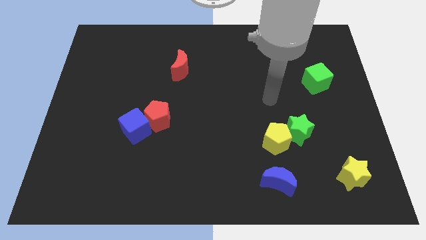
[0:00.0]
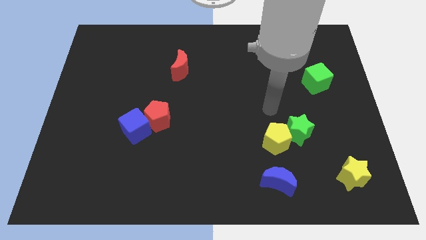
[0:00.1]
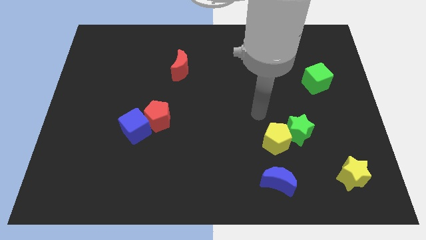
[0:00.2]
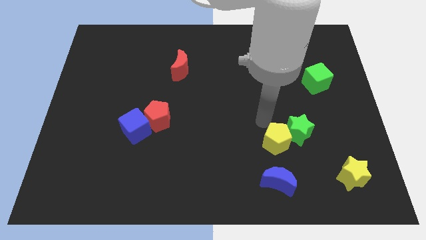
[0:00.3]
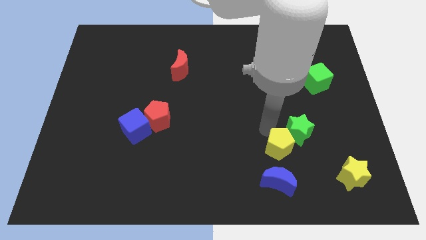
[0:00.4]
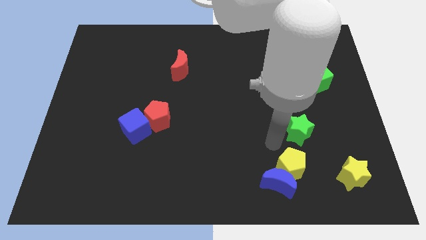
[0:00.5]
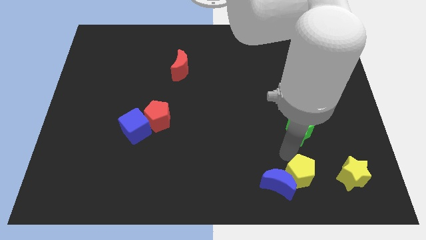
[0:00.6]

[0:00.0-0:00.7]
separate the green star from the yellow pentagon

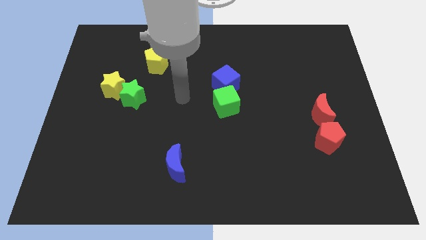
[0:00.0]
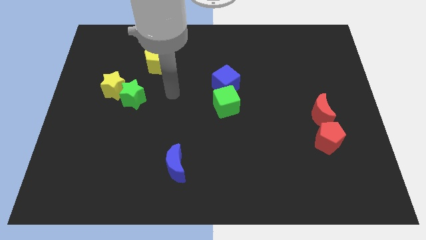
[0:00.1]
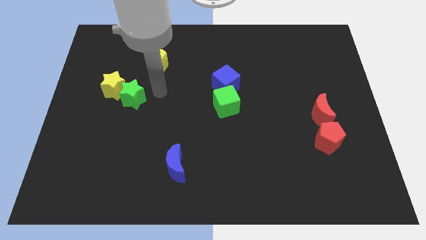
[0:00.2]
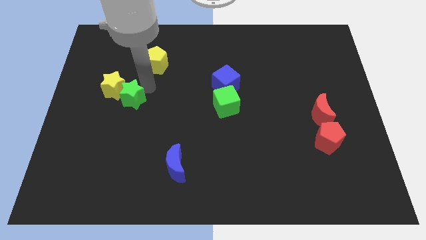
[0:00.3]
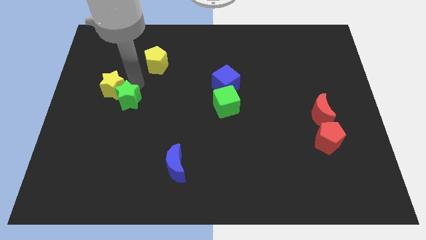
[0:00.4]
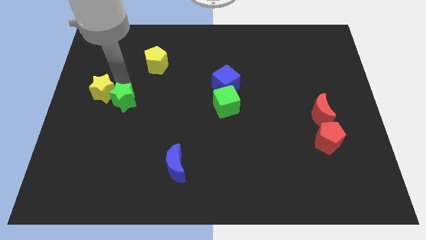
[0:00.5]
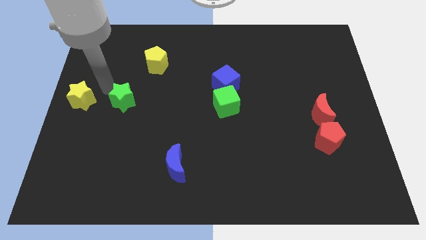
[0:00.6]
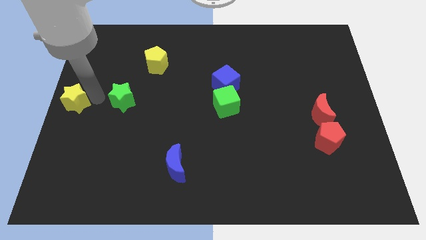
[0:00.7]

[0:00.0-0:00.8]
separate the green star from the yellow star

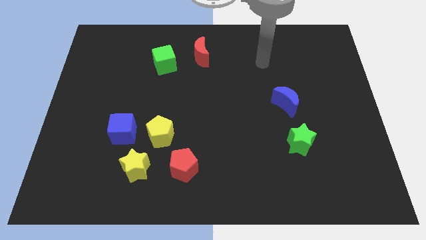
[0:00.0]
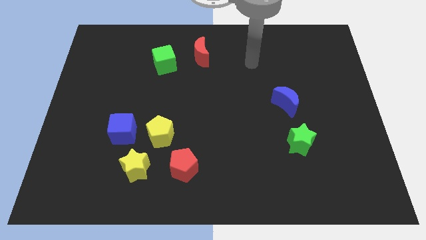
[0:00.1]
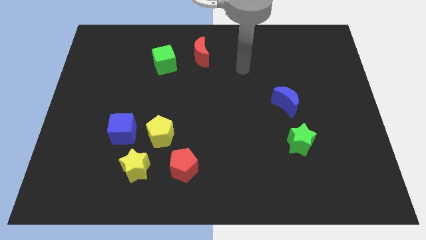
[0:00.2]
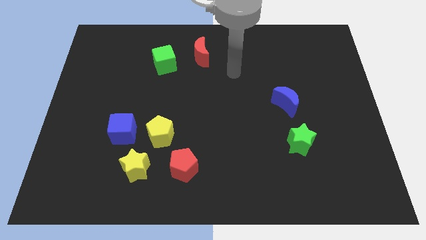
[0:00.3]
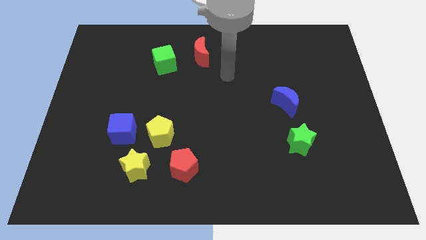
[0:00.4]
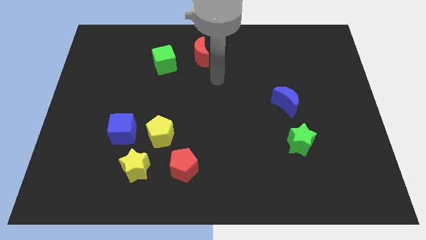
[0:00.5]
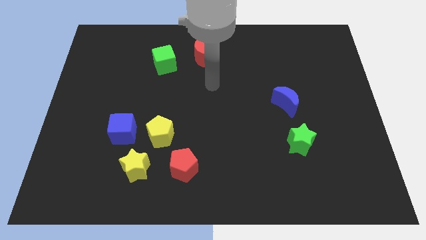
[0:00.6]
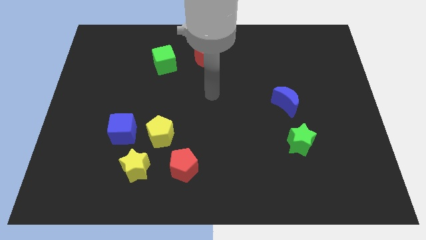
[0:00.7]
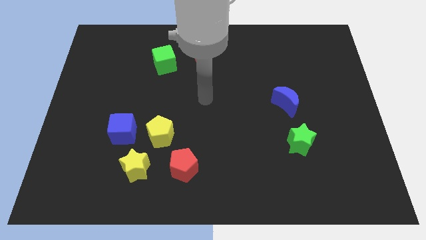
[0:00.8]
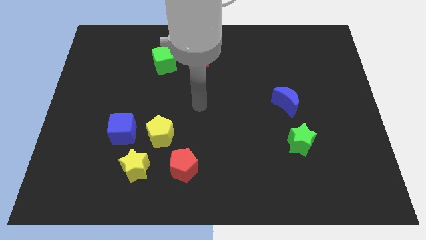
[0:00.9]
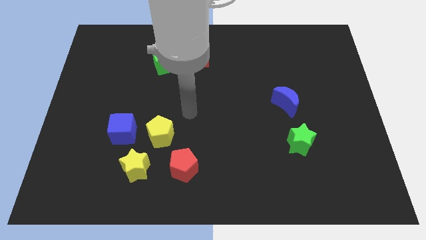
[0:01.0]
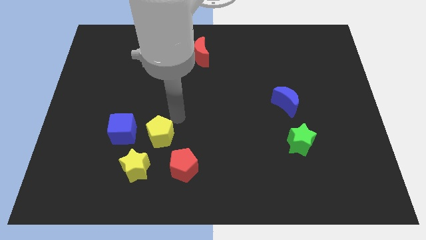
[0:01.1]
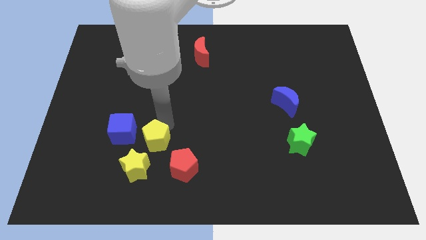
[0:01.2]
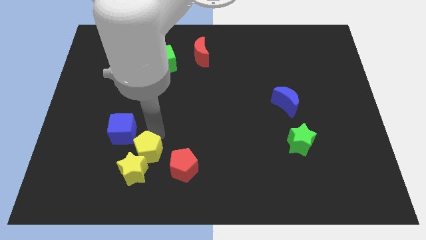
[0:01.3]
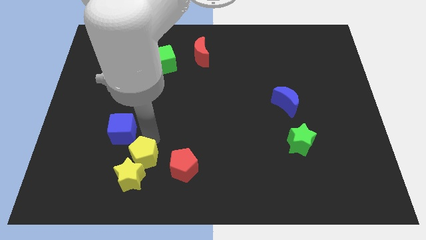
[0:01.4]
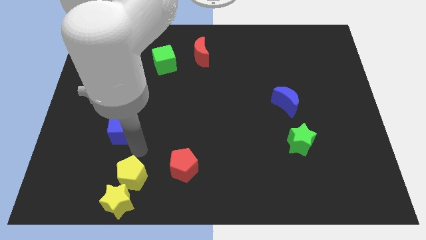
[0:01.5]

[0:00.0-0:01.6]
move the blue cube away from the yellow pentagon and yellow star

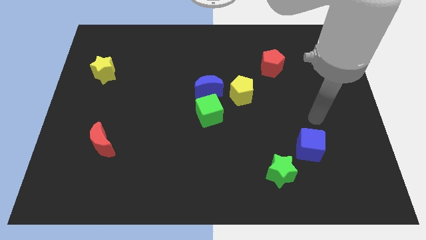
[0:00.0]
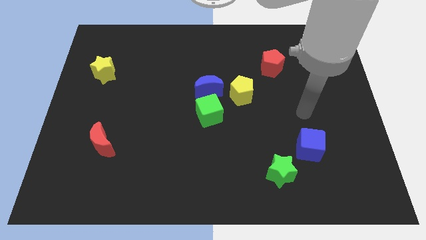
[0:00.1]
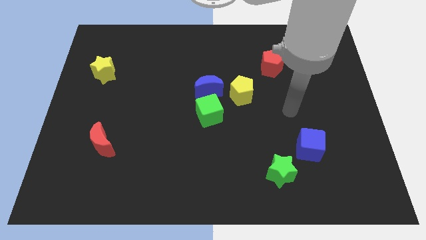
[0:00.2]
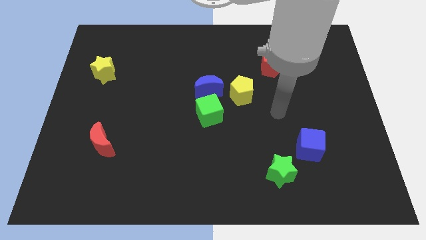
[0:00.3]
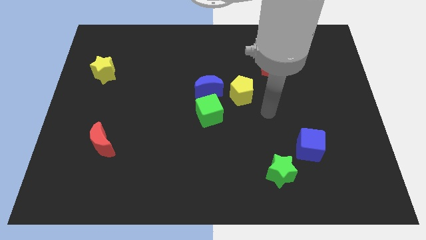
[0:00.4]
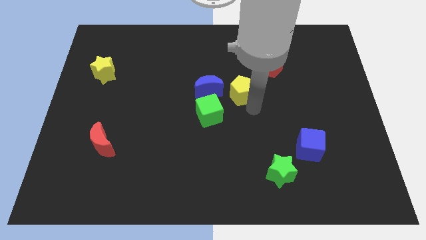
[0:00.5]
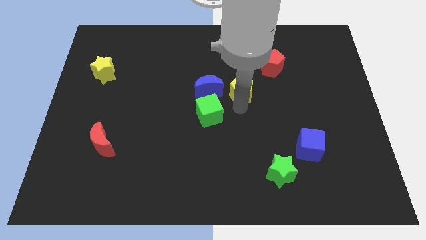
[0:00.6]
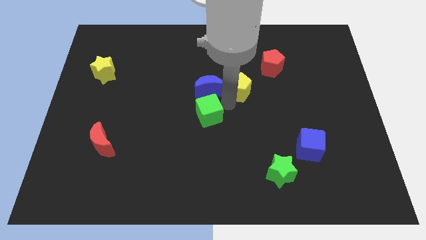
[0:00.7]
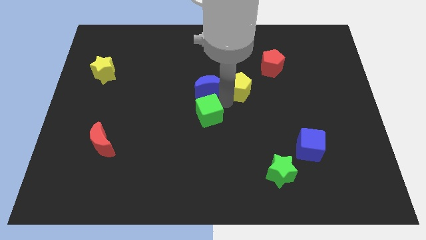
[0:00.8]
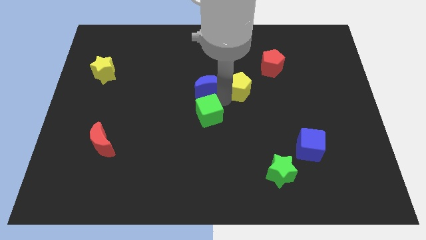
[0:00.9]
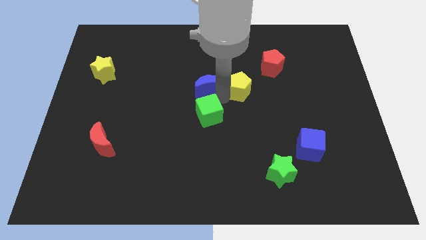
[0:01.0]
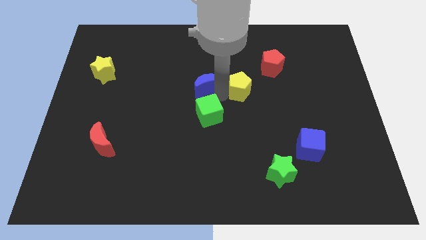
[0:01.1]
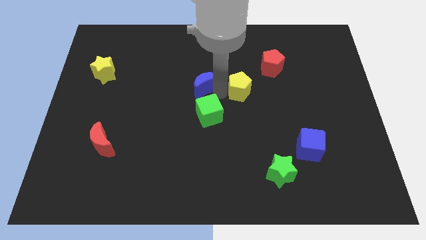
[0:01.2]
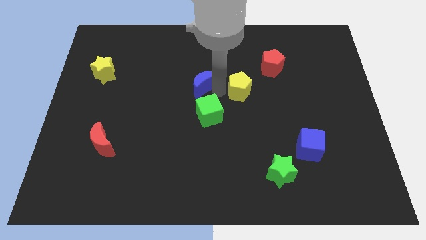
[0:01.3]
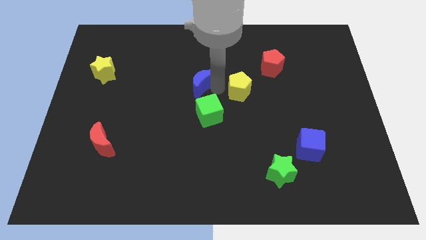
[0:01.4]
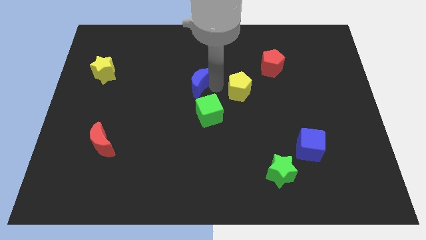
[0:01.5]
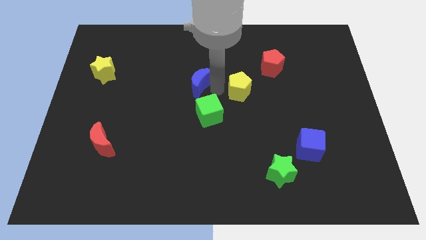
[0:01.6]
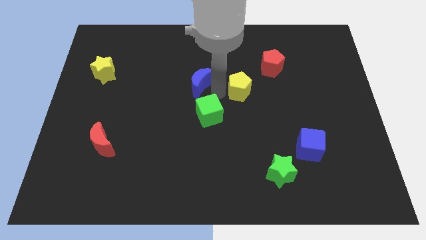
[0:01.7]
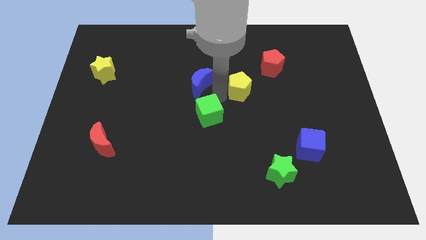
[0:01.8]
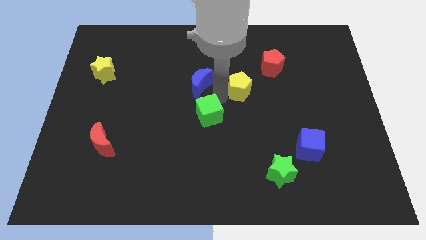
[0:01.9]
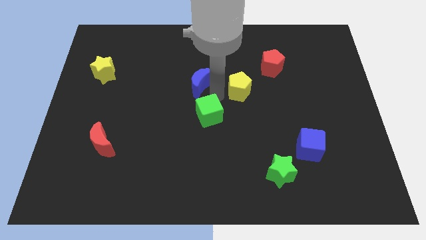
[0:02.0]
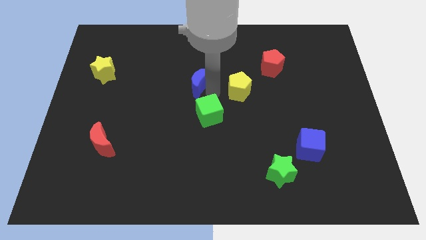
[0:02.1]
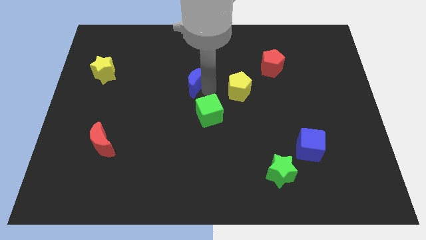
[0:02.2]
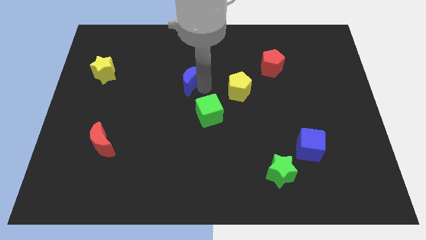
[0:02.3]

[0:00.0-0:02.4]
pull the blue moon apart from the green cube and yellow pentagon

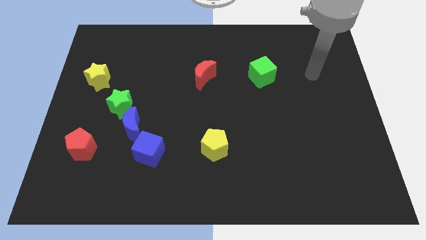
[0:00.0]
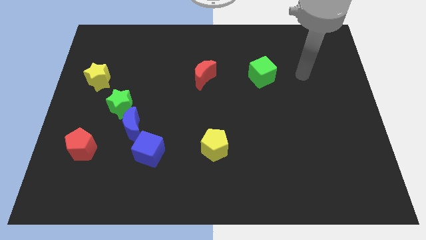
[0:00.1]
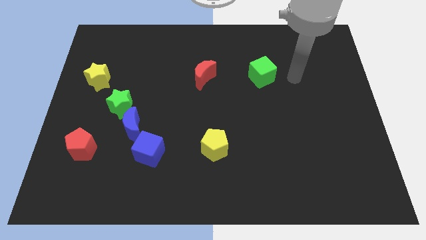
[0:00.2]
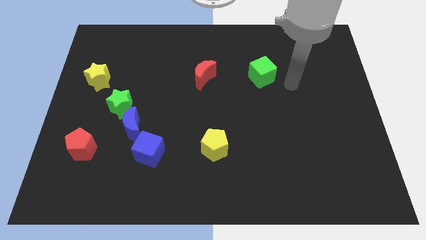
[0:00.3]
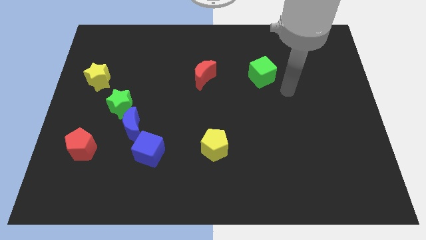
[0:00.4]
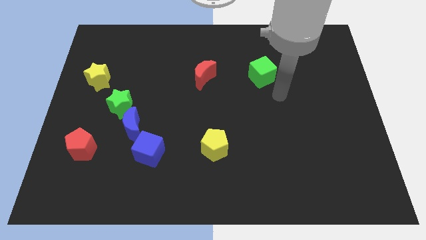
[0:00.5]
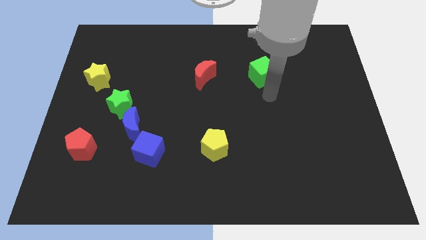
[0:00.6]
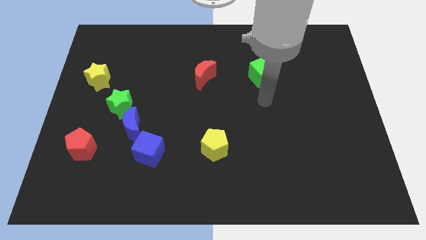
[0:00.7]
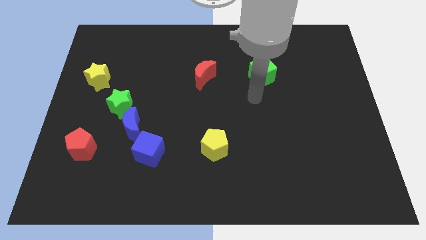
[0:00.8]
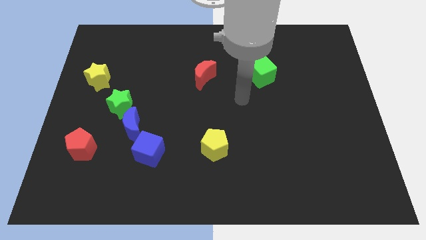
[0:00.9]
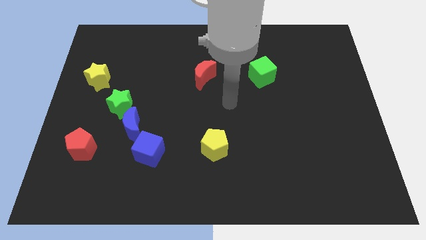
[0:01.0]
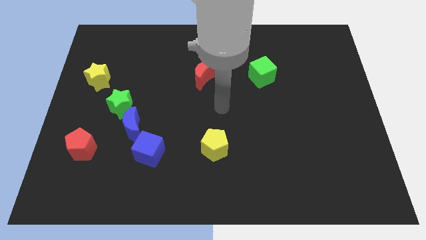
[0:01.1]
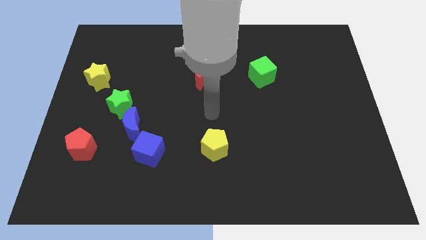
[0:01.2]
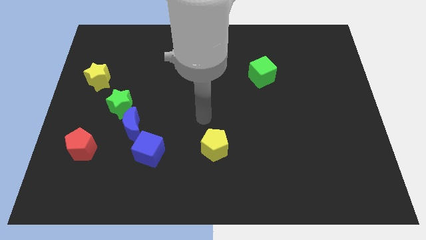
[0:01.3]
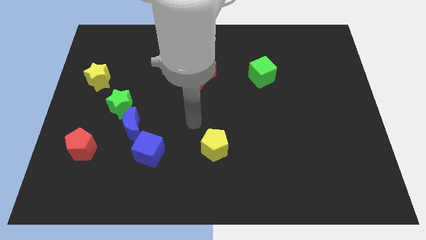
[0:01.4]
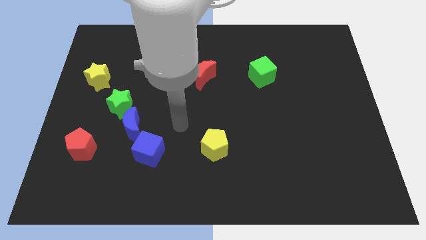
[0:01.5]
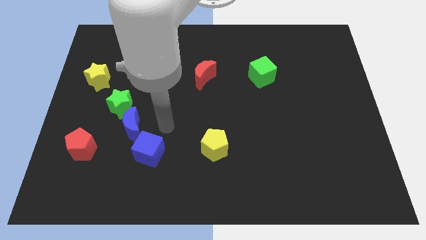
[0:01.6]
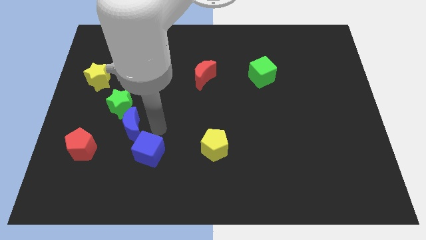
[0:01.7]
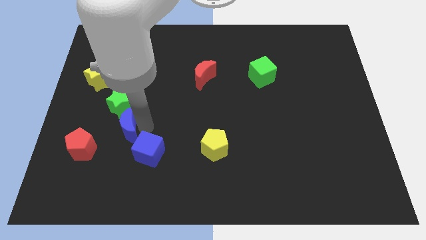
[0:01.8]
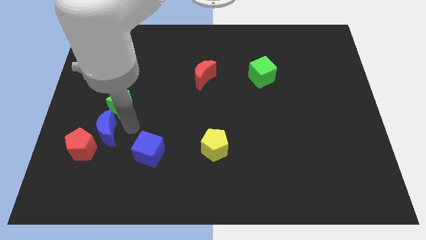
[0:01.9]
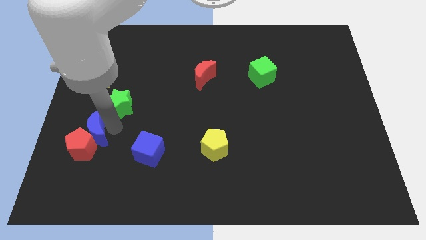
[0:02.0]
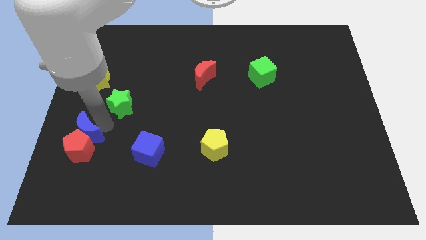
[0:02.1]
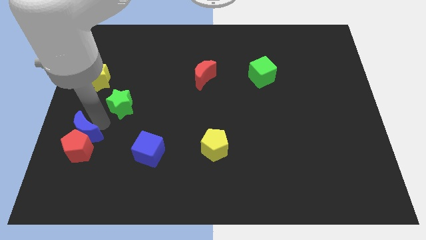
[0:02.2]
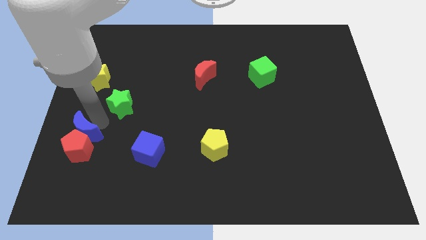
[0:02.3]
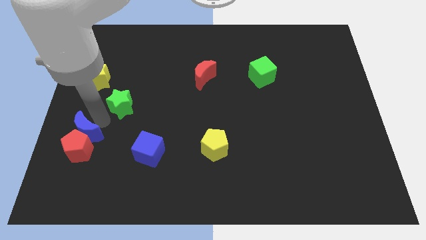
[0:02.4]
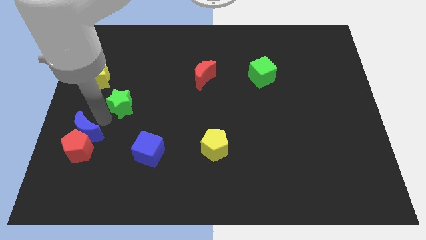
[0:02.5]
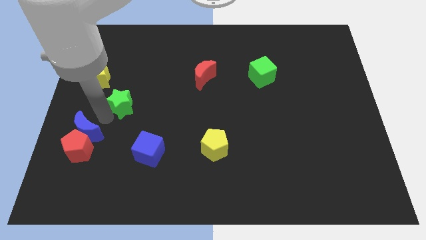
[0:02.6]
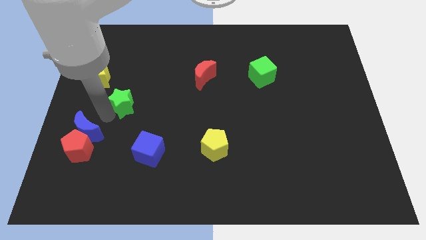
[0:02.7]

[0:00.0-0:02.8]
move the green star away from the blue moon

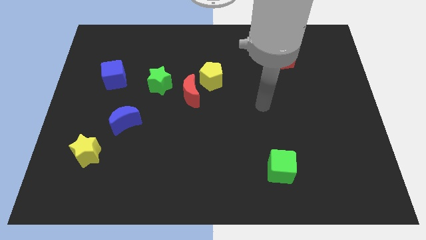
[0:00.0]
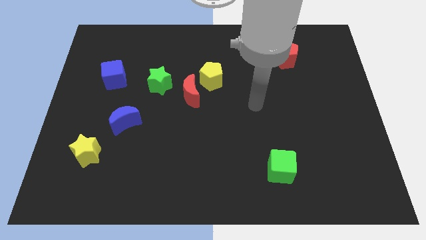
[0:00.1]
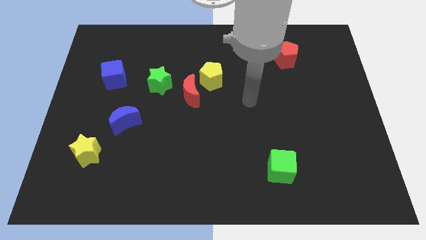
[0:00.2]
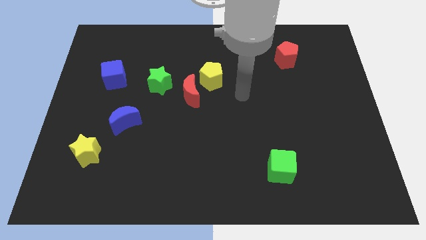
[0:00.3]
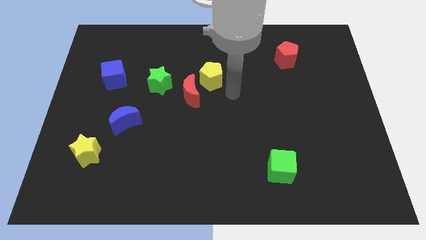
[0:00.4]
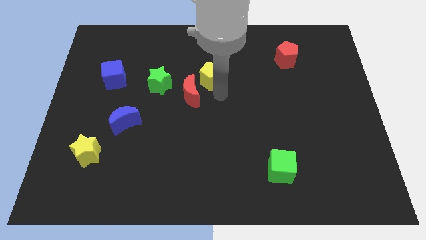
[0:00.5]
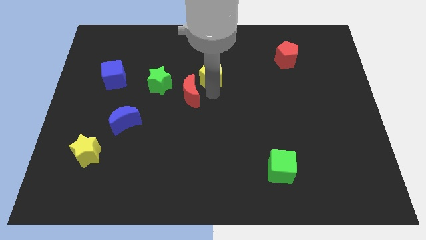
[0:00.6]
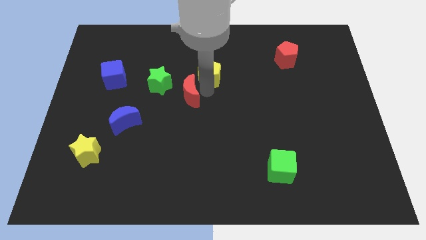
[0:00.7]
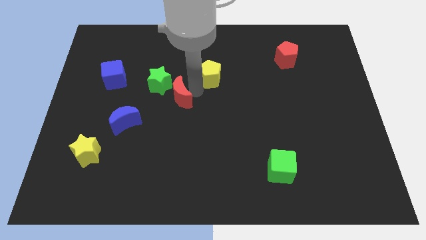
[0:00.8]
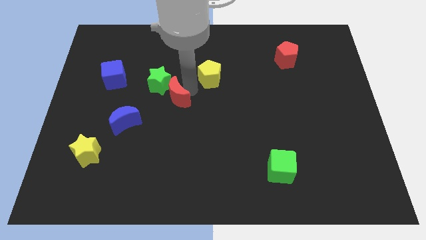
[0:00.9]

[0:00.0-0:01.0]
move the yellow pentagon away from the red moon

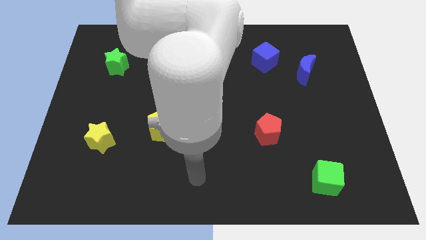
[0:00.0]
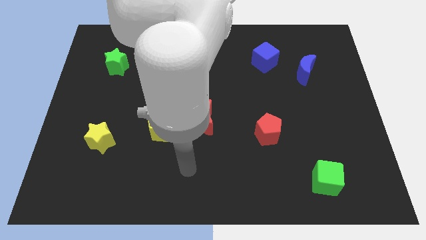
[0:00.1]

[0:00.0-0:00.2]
pull the red moon apart from the yellow pentagon
